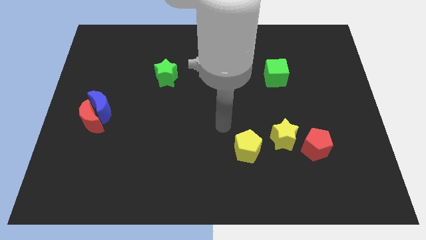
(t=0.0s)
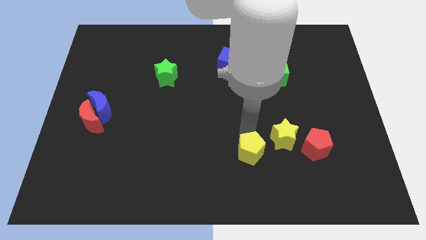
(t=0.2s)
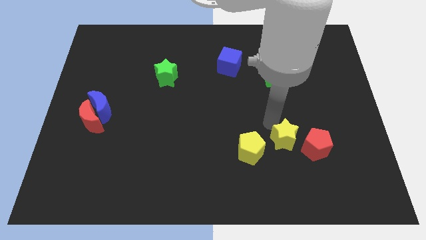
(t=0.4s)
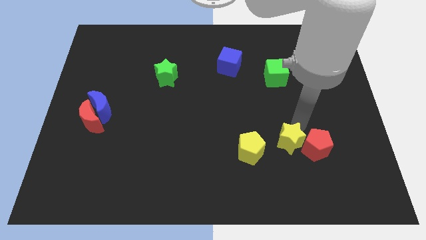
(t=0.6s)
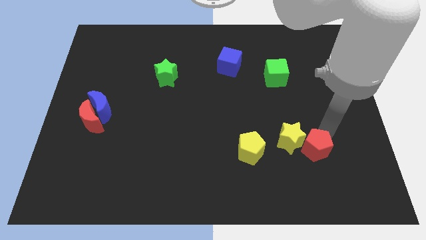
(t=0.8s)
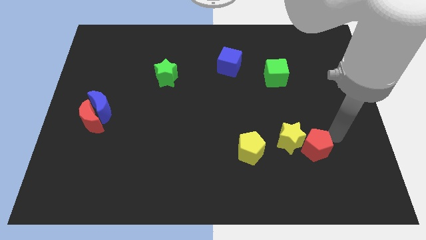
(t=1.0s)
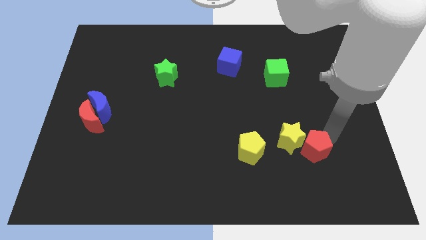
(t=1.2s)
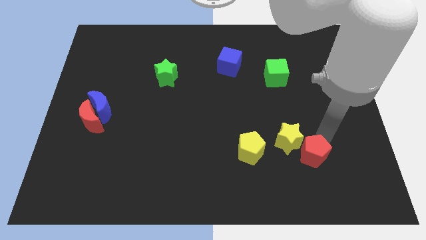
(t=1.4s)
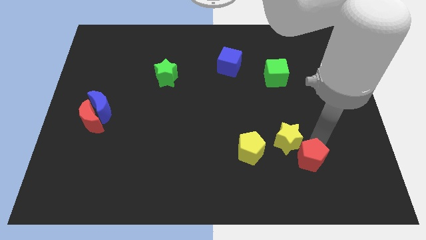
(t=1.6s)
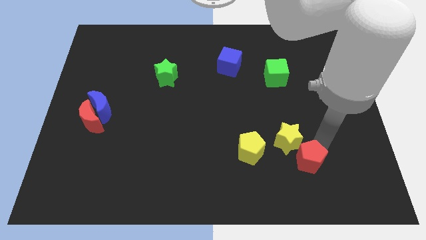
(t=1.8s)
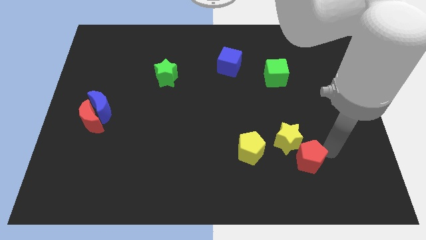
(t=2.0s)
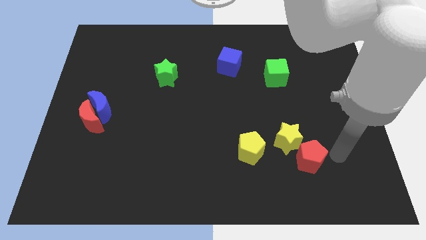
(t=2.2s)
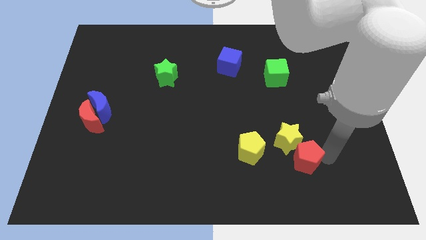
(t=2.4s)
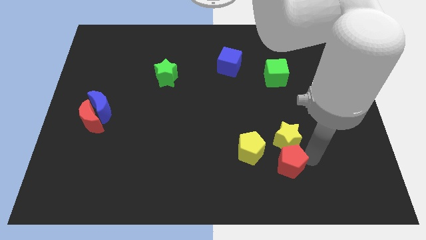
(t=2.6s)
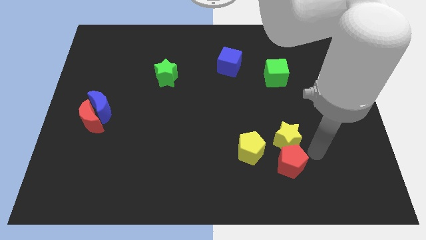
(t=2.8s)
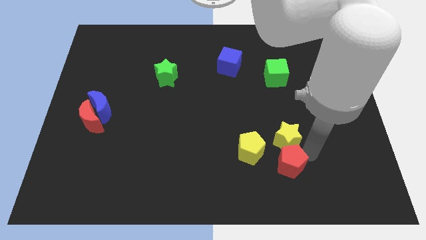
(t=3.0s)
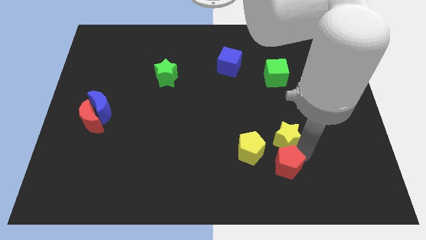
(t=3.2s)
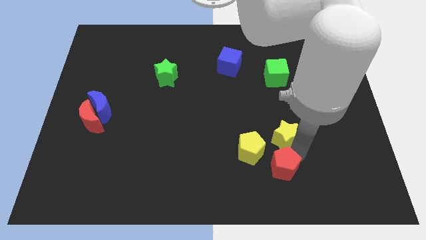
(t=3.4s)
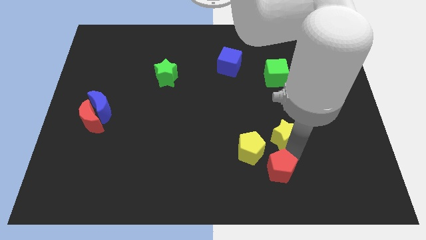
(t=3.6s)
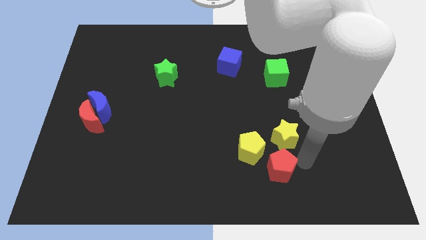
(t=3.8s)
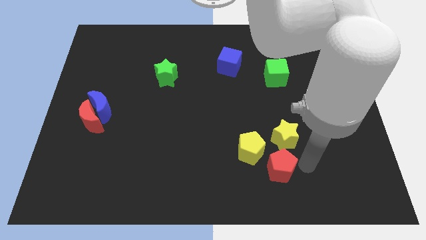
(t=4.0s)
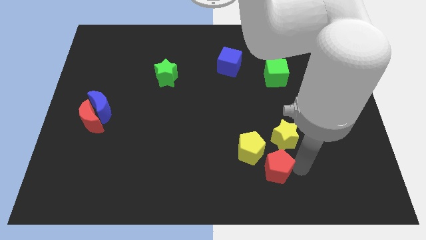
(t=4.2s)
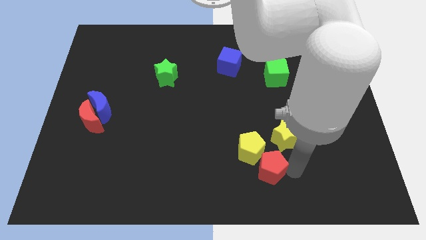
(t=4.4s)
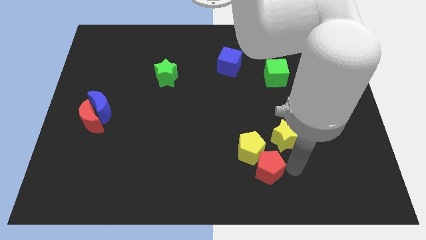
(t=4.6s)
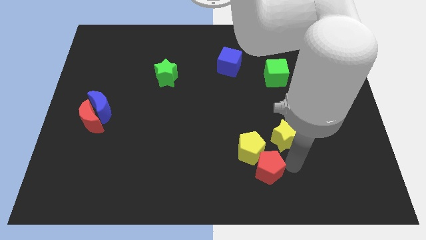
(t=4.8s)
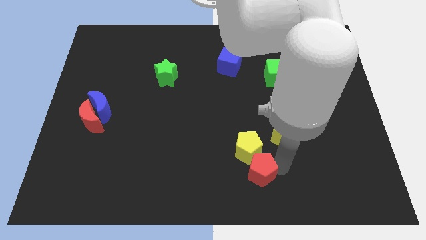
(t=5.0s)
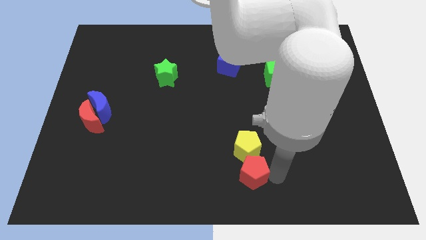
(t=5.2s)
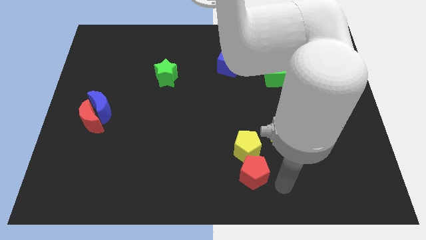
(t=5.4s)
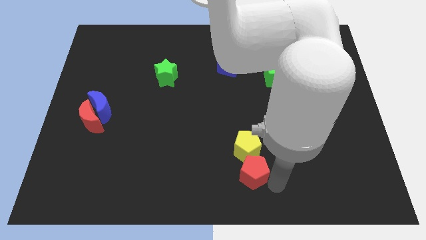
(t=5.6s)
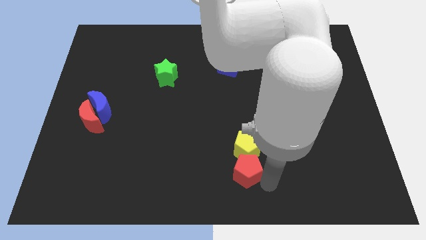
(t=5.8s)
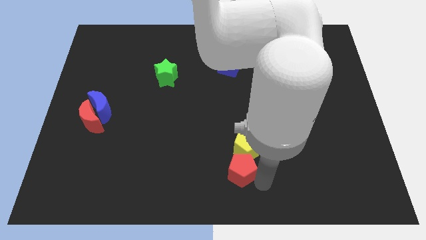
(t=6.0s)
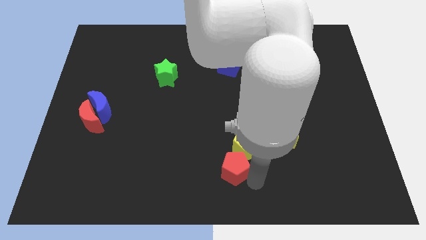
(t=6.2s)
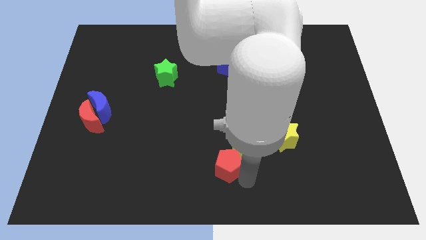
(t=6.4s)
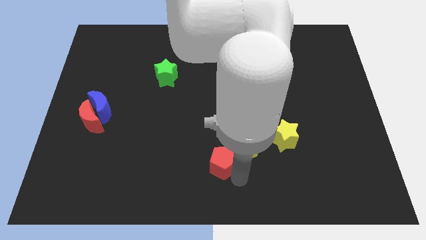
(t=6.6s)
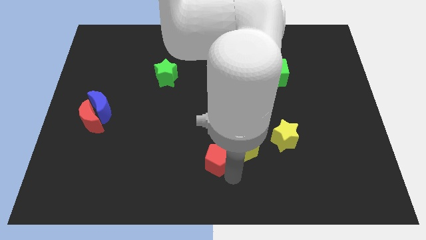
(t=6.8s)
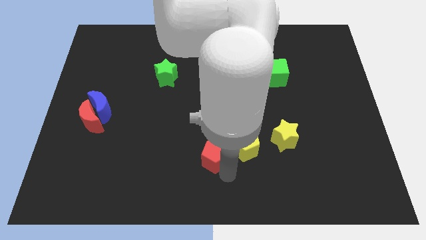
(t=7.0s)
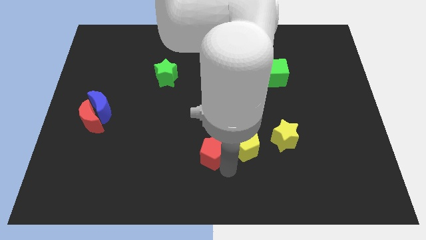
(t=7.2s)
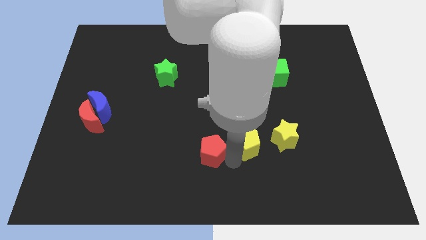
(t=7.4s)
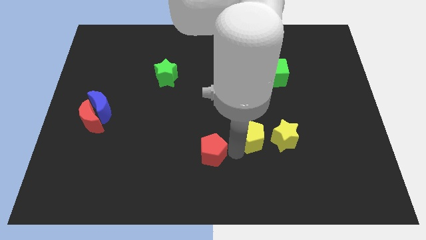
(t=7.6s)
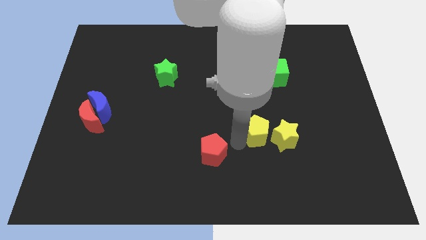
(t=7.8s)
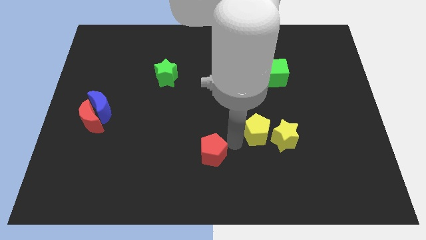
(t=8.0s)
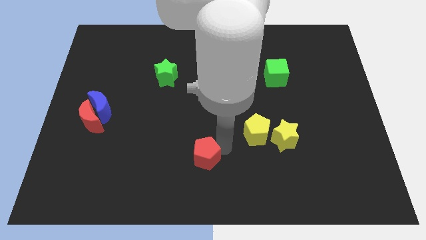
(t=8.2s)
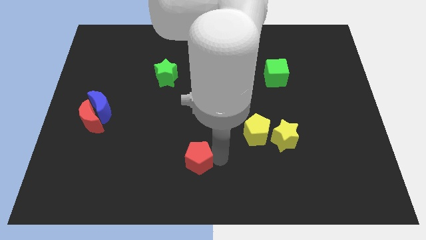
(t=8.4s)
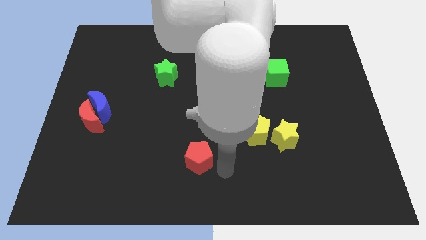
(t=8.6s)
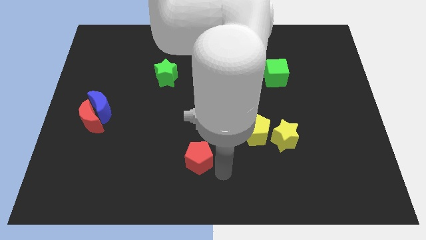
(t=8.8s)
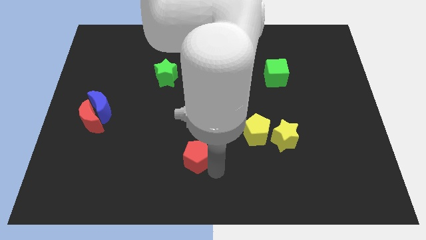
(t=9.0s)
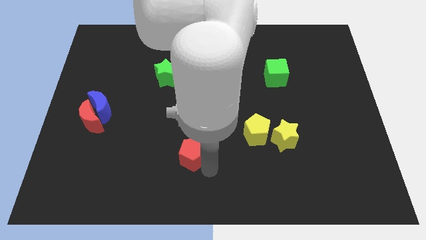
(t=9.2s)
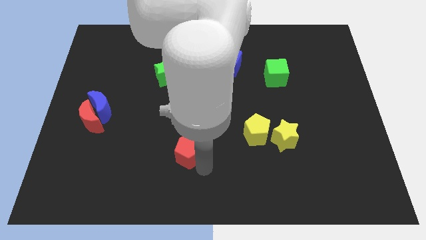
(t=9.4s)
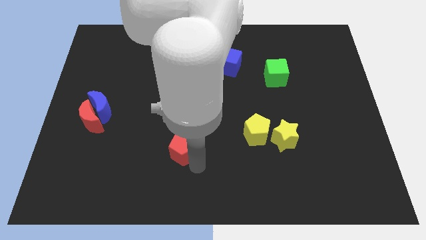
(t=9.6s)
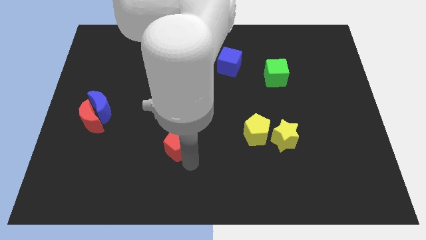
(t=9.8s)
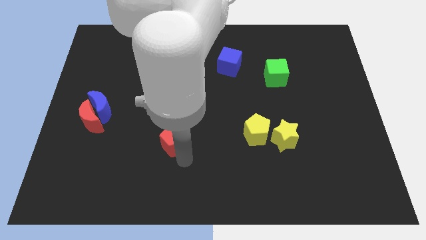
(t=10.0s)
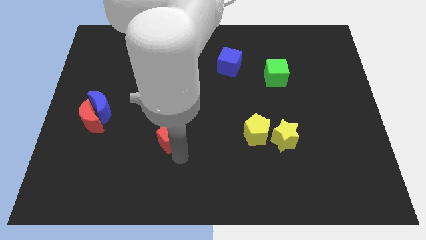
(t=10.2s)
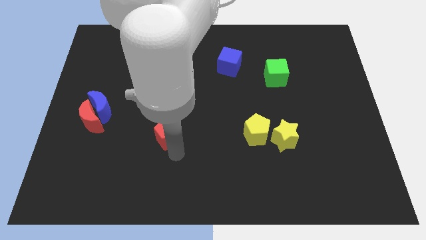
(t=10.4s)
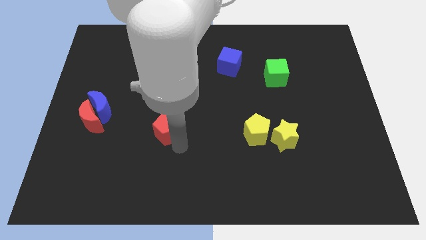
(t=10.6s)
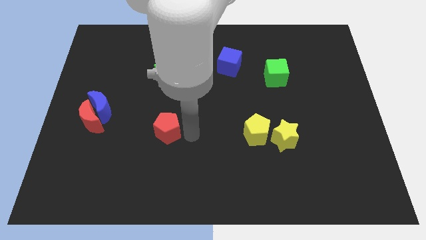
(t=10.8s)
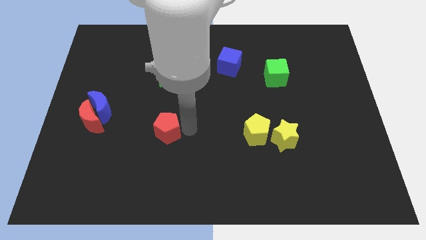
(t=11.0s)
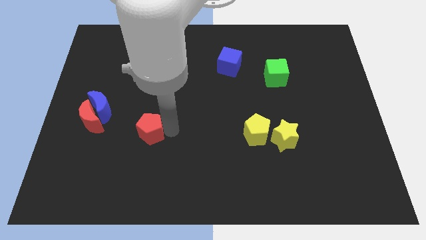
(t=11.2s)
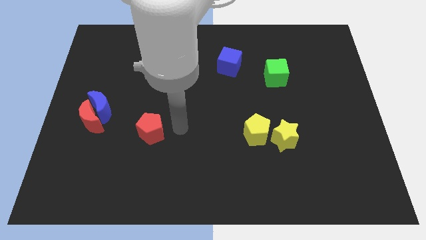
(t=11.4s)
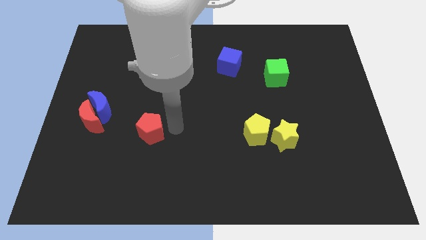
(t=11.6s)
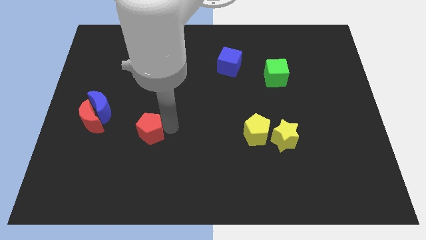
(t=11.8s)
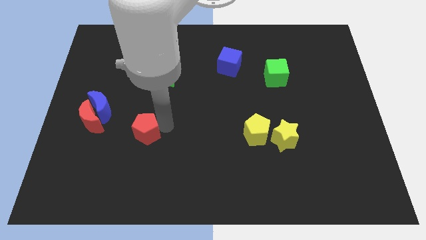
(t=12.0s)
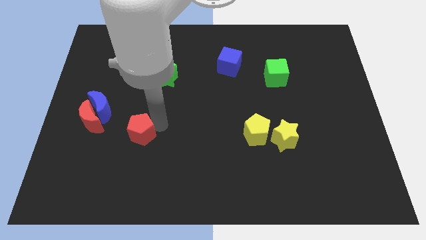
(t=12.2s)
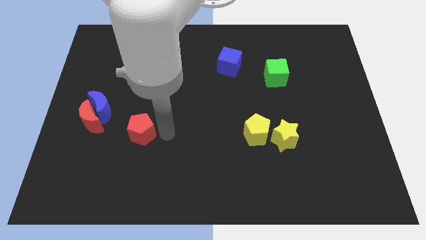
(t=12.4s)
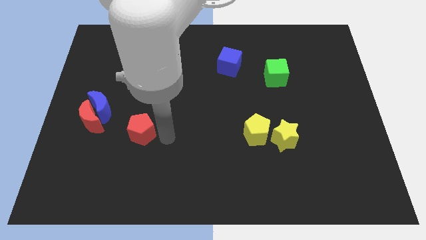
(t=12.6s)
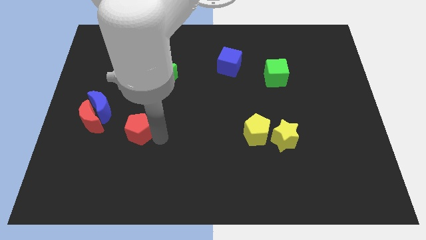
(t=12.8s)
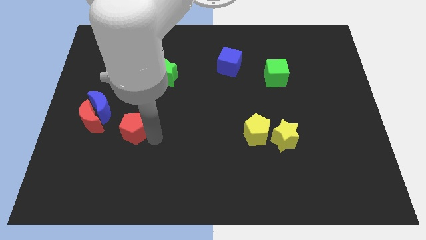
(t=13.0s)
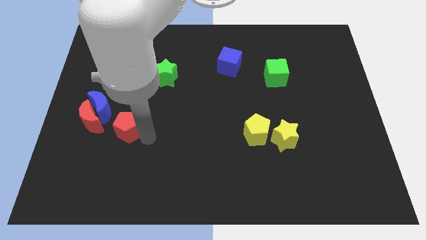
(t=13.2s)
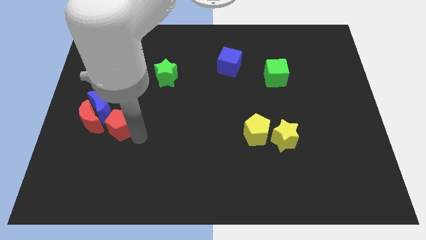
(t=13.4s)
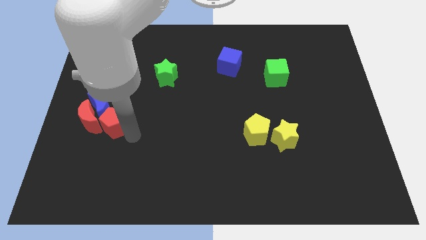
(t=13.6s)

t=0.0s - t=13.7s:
move the red pentagon next to the red moon

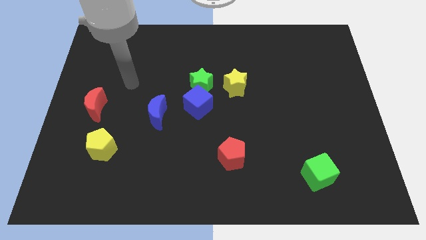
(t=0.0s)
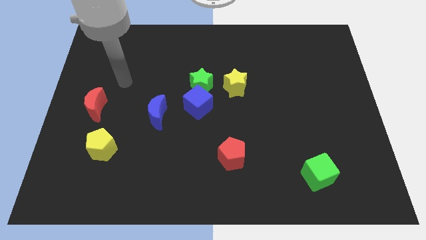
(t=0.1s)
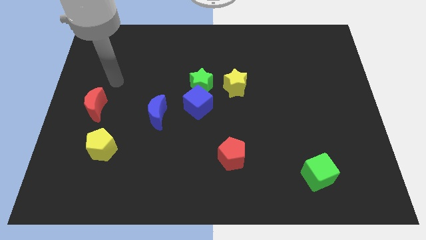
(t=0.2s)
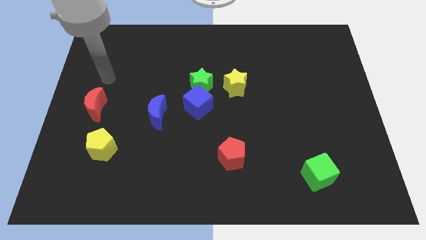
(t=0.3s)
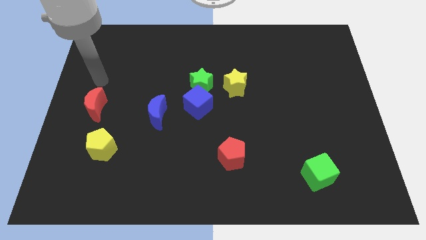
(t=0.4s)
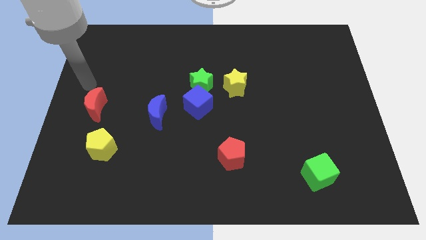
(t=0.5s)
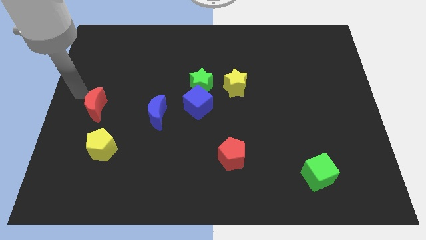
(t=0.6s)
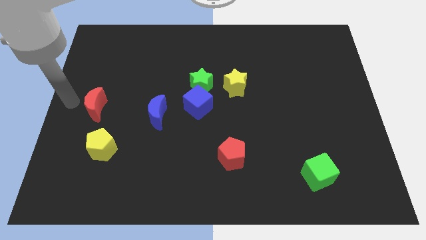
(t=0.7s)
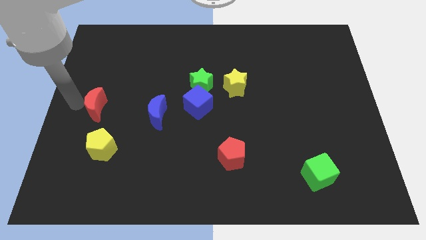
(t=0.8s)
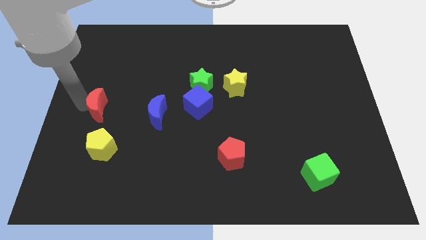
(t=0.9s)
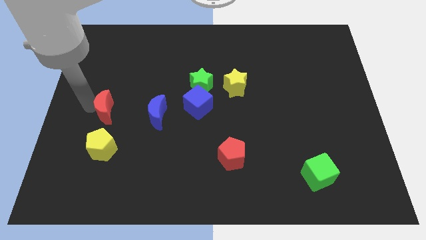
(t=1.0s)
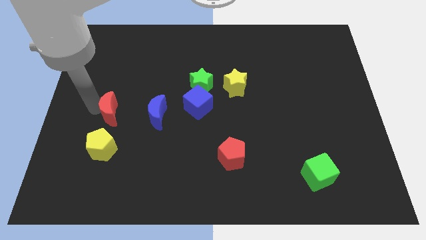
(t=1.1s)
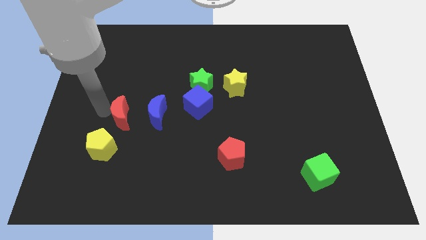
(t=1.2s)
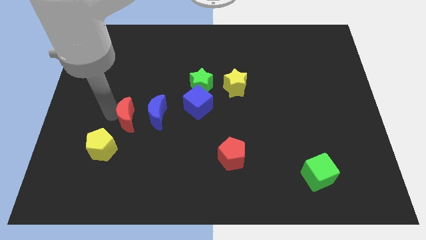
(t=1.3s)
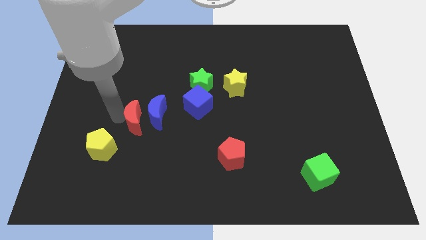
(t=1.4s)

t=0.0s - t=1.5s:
slide the red moon close to the blue moon
